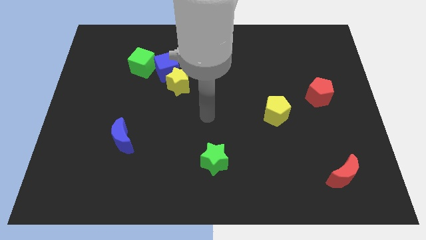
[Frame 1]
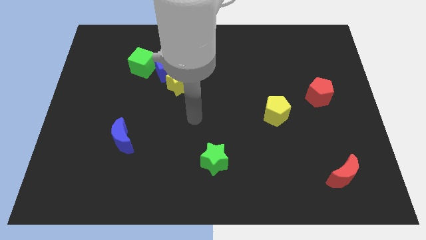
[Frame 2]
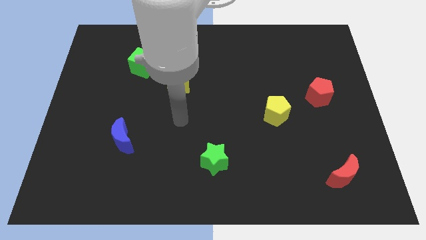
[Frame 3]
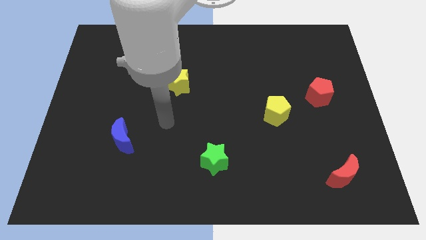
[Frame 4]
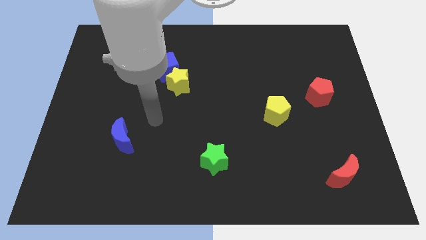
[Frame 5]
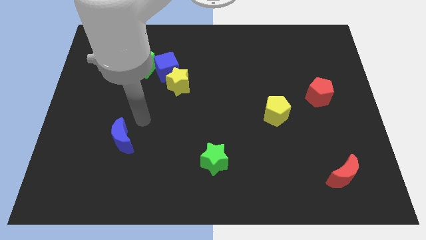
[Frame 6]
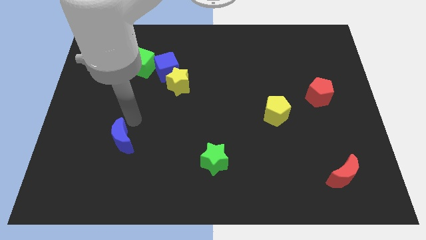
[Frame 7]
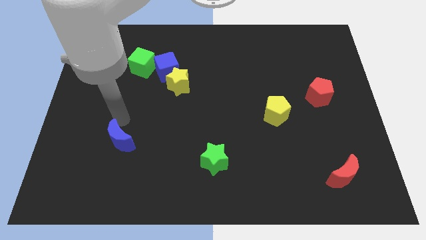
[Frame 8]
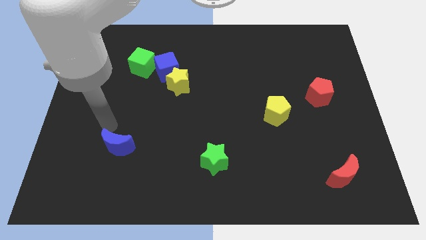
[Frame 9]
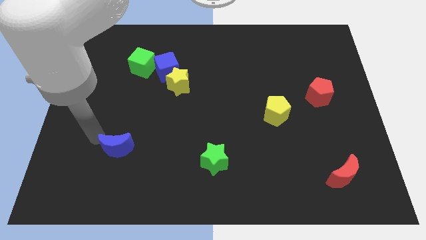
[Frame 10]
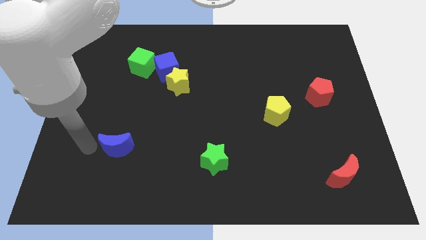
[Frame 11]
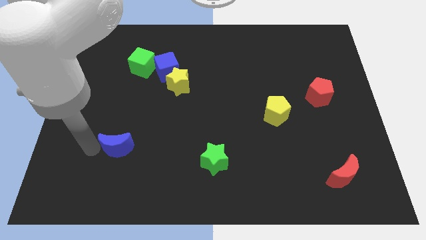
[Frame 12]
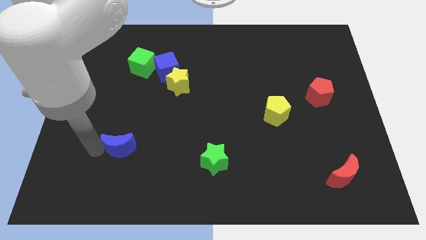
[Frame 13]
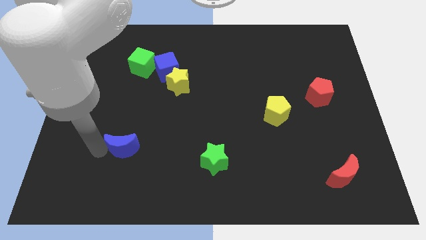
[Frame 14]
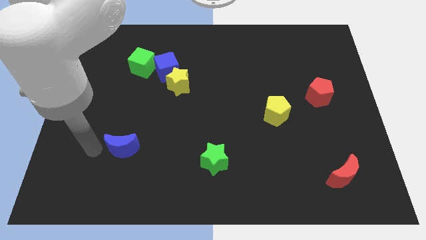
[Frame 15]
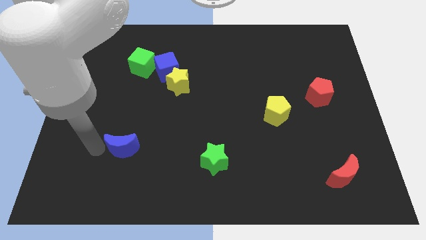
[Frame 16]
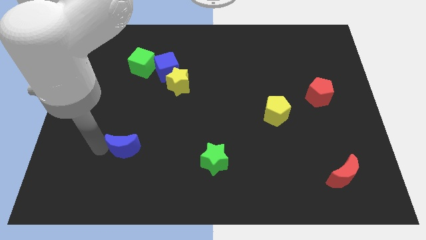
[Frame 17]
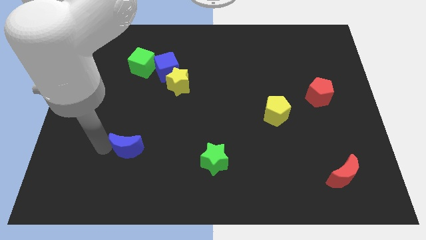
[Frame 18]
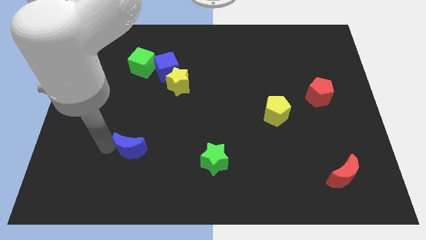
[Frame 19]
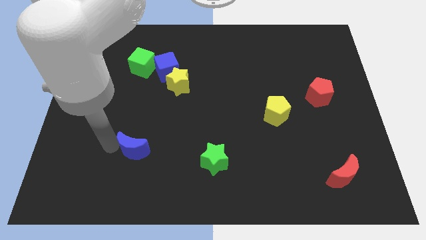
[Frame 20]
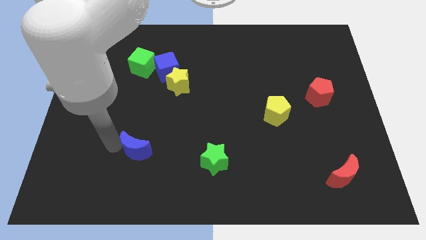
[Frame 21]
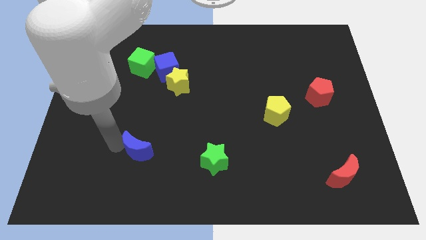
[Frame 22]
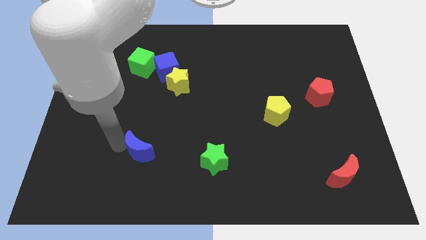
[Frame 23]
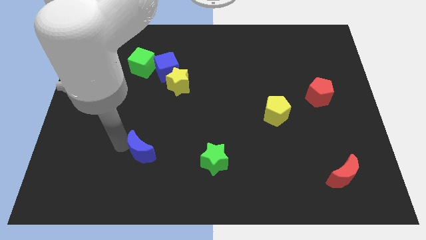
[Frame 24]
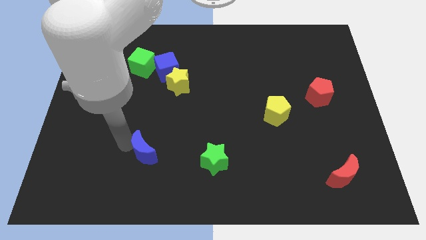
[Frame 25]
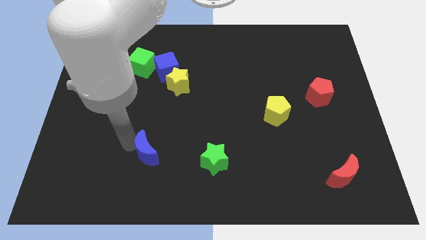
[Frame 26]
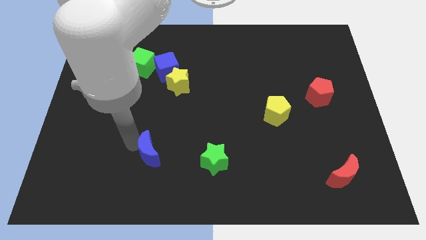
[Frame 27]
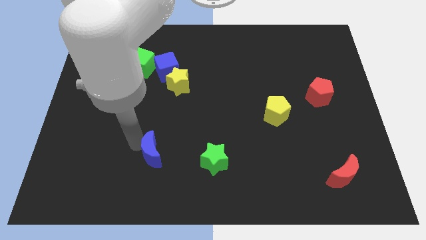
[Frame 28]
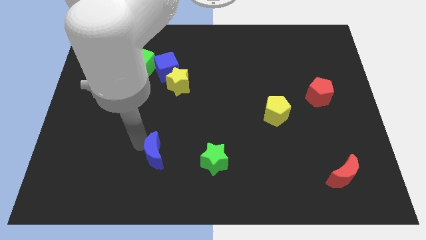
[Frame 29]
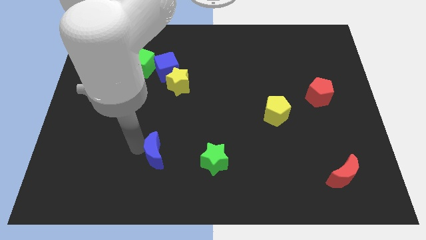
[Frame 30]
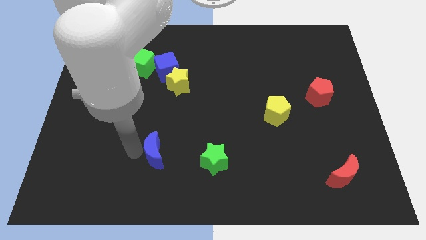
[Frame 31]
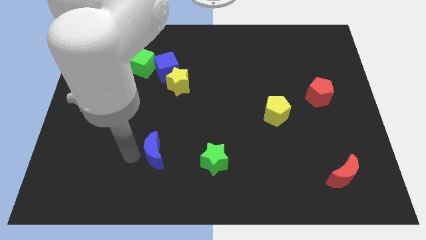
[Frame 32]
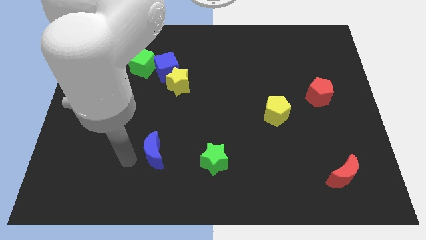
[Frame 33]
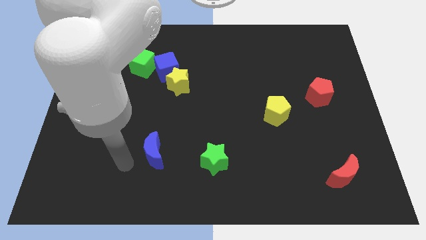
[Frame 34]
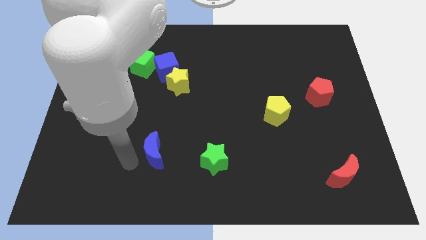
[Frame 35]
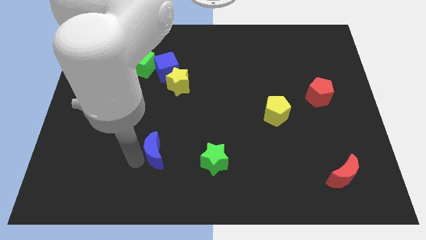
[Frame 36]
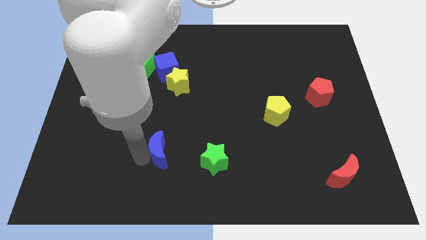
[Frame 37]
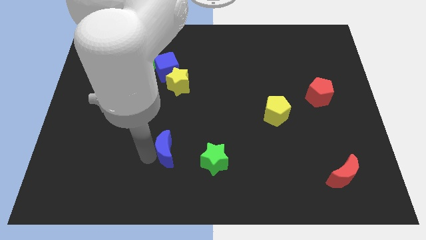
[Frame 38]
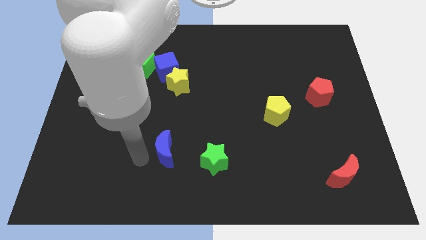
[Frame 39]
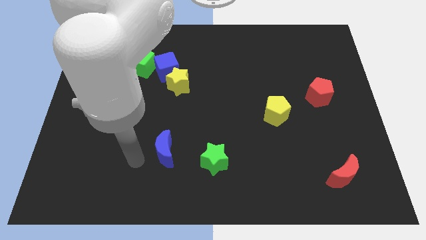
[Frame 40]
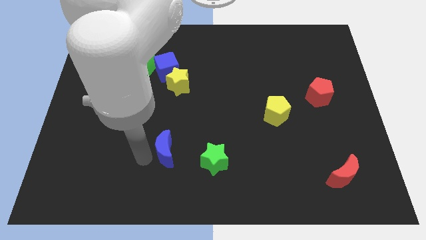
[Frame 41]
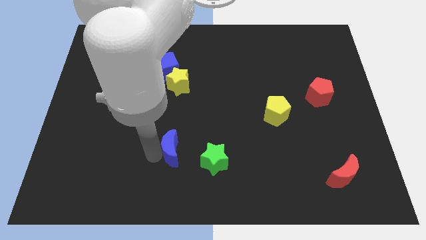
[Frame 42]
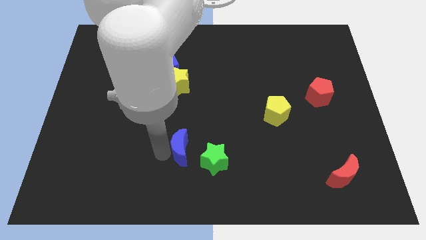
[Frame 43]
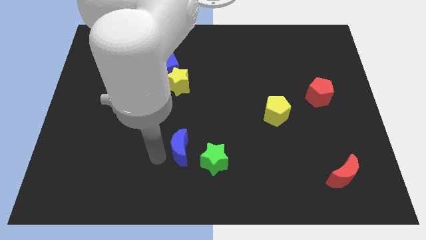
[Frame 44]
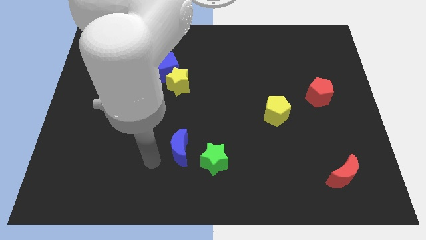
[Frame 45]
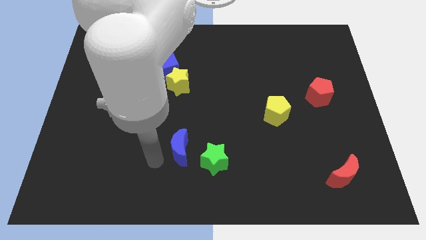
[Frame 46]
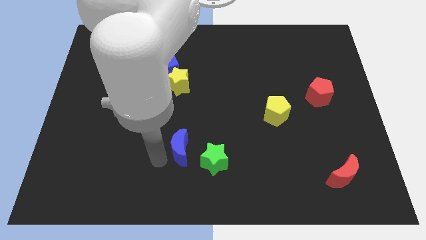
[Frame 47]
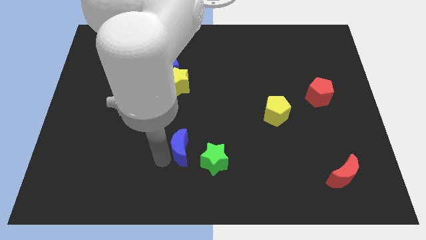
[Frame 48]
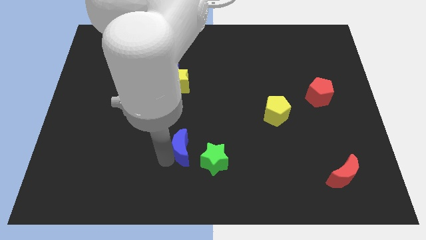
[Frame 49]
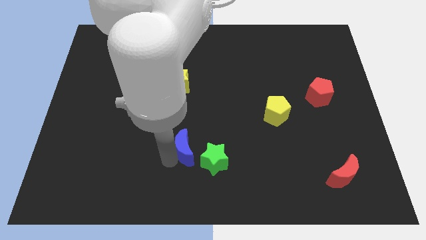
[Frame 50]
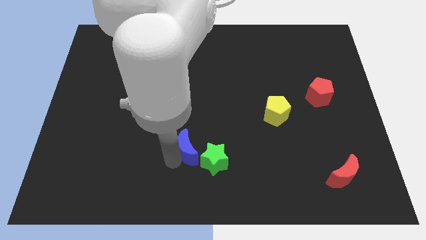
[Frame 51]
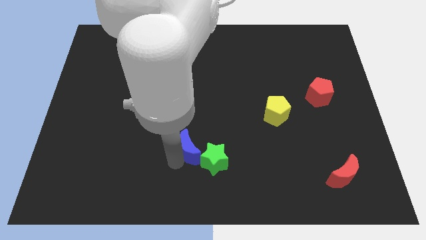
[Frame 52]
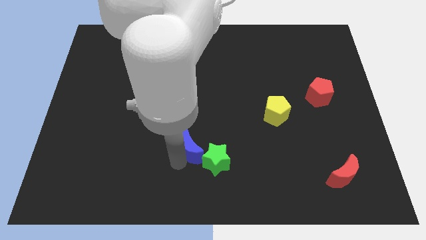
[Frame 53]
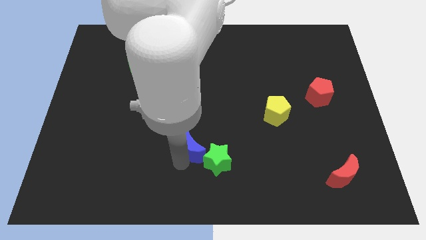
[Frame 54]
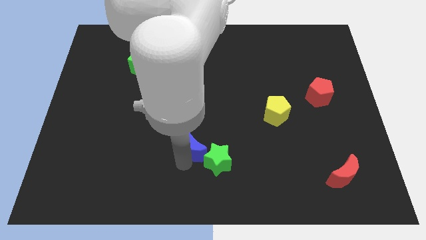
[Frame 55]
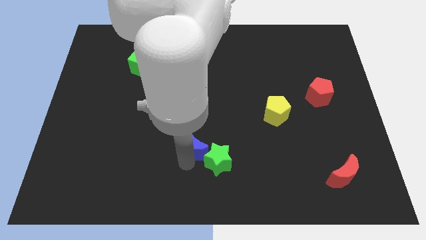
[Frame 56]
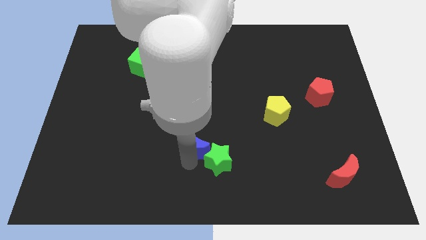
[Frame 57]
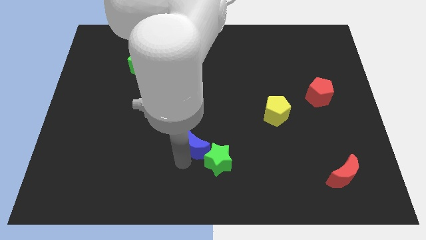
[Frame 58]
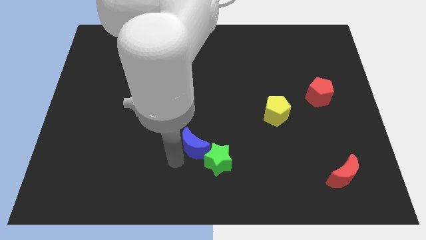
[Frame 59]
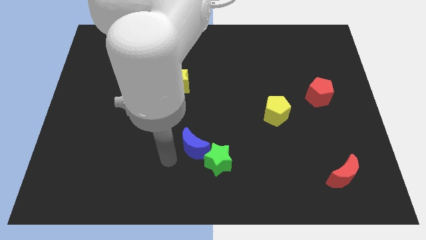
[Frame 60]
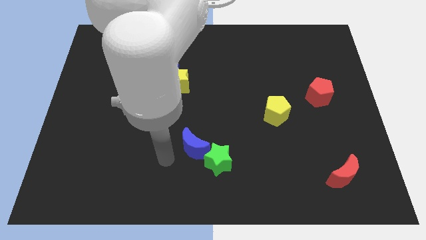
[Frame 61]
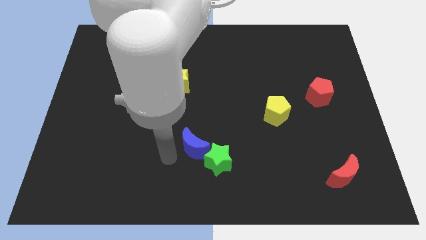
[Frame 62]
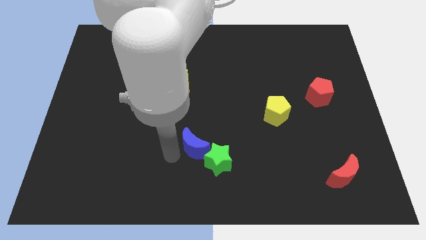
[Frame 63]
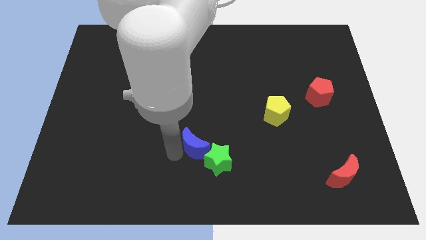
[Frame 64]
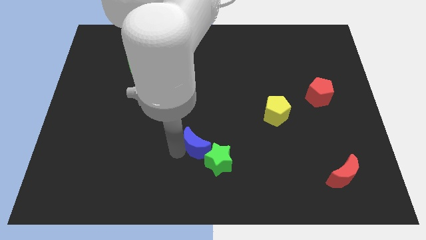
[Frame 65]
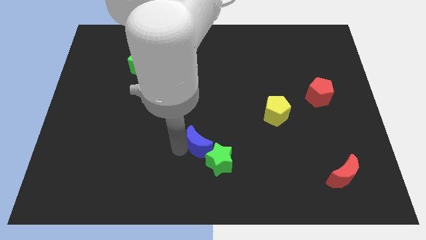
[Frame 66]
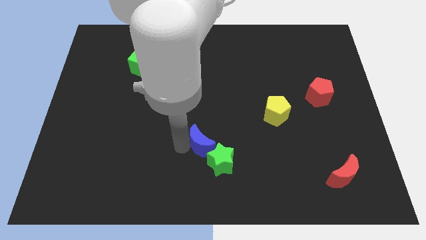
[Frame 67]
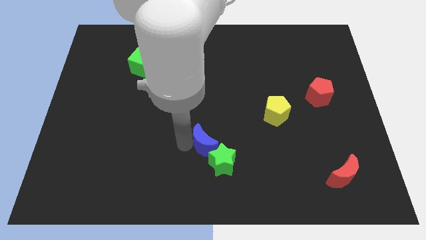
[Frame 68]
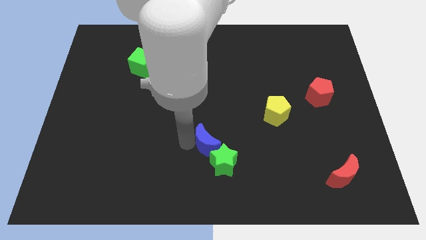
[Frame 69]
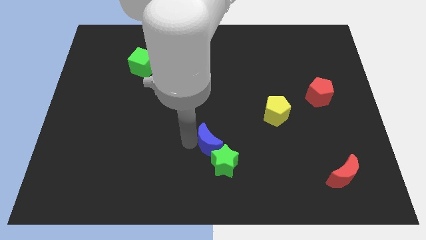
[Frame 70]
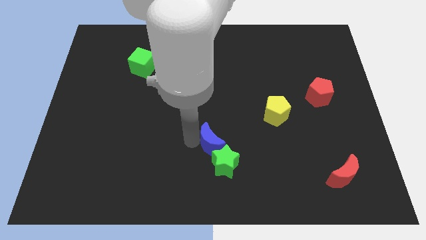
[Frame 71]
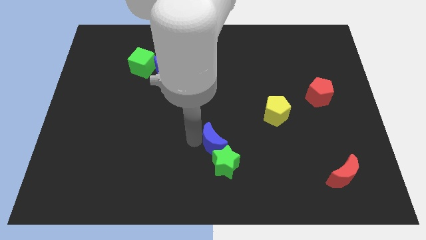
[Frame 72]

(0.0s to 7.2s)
push the blue moon right

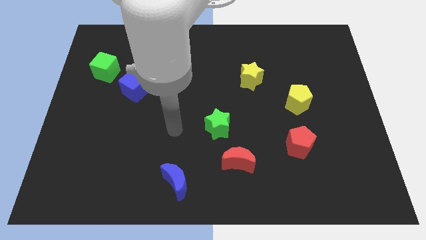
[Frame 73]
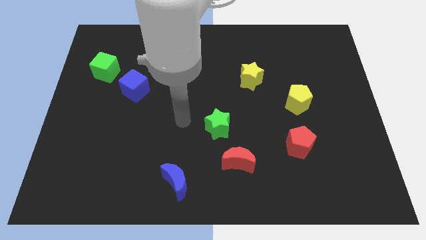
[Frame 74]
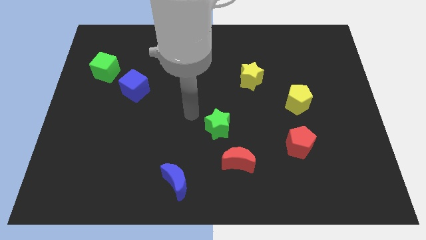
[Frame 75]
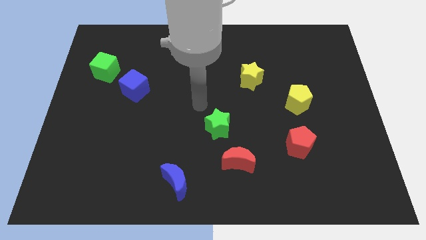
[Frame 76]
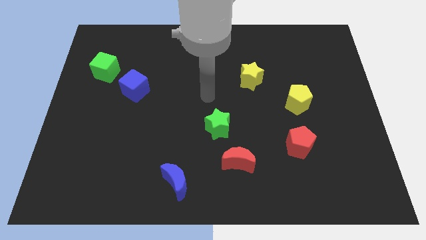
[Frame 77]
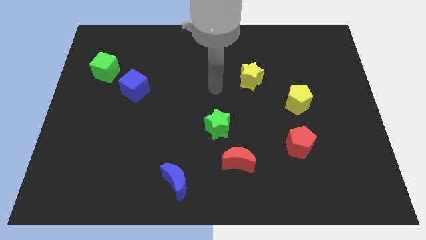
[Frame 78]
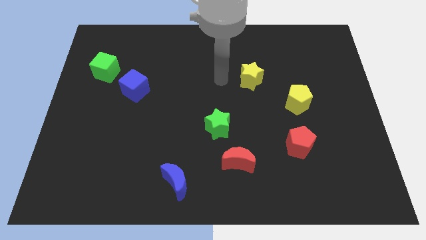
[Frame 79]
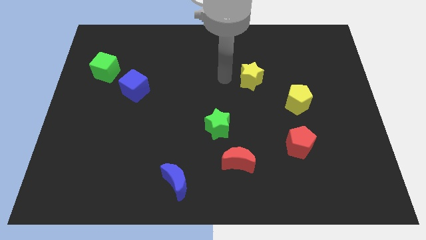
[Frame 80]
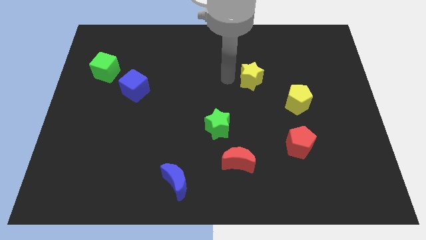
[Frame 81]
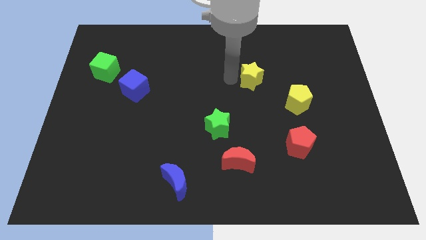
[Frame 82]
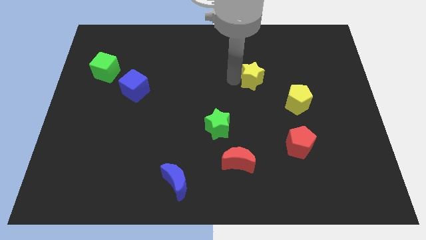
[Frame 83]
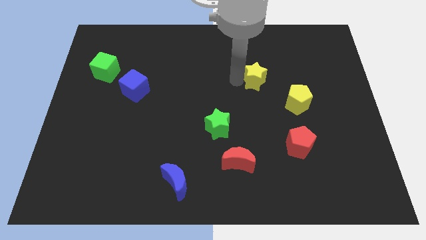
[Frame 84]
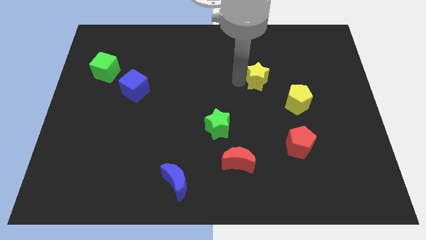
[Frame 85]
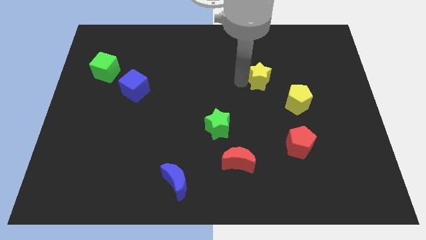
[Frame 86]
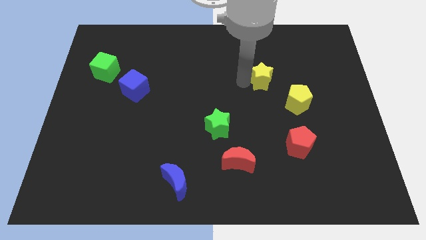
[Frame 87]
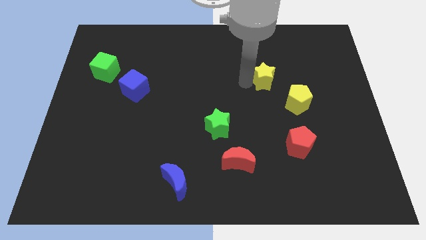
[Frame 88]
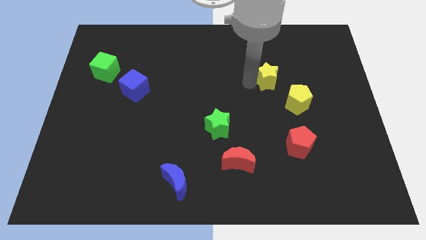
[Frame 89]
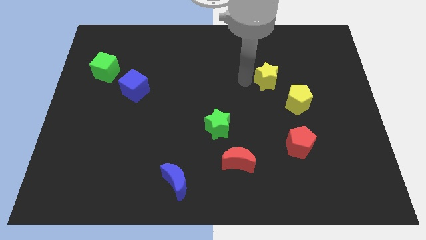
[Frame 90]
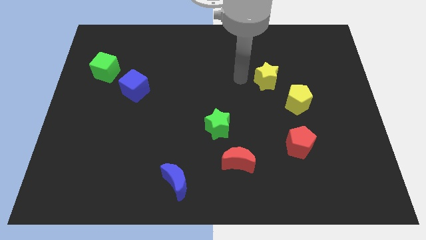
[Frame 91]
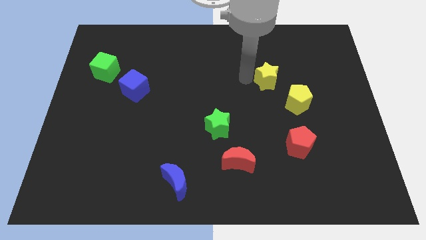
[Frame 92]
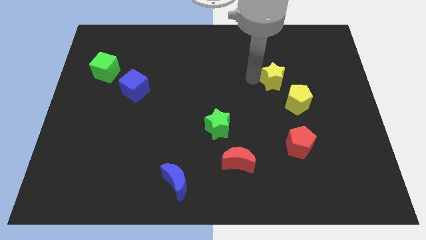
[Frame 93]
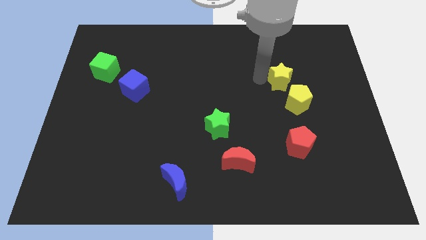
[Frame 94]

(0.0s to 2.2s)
push the yellow star to the right a bit
